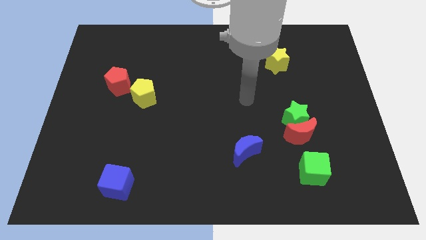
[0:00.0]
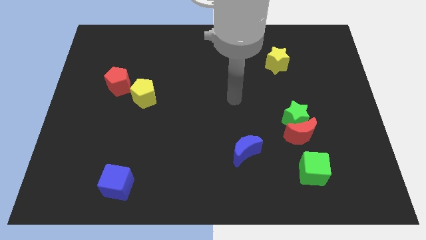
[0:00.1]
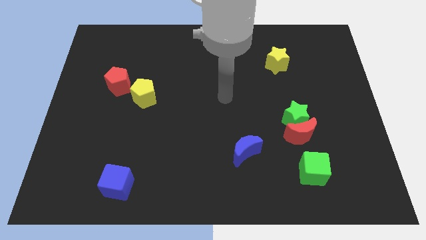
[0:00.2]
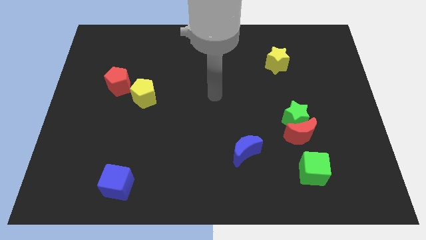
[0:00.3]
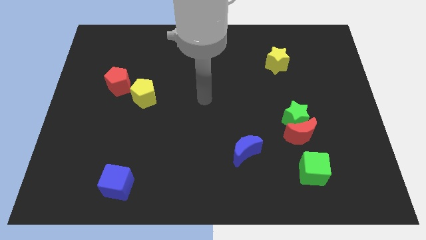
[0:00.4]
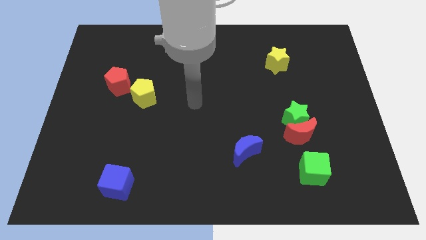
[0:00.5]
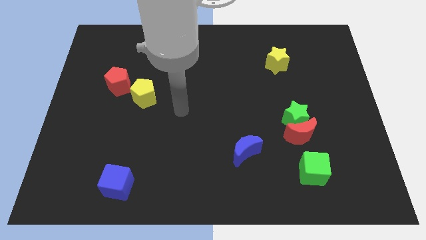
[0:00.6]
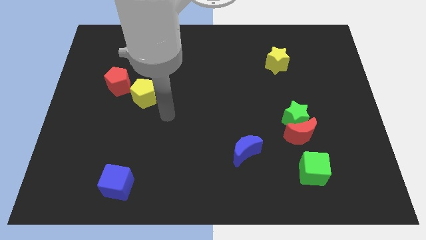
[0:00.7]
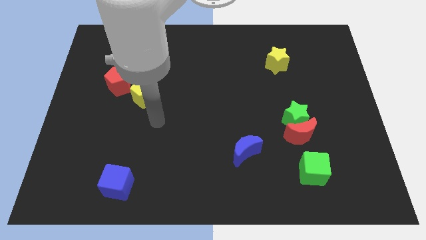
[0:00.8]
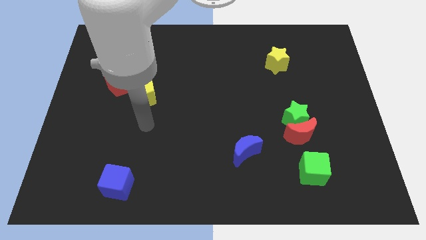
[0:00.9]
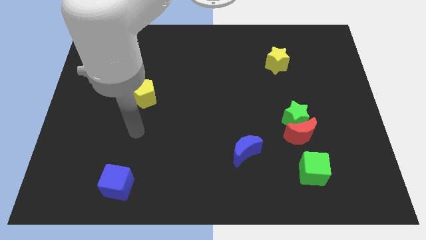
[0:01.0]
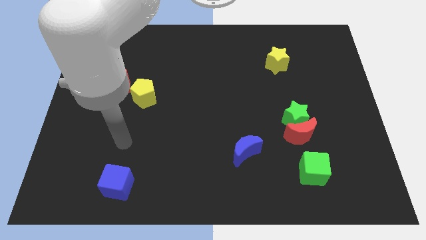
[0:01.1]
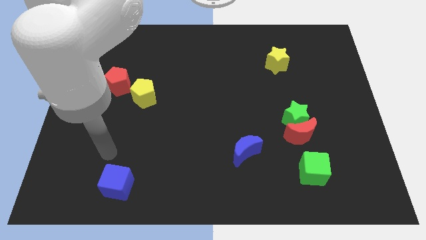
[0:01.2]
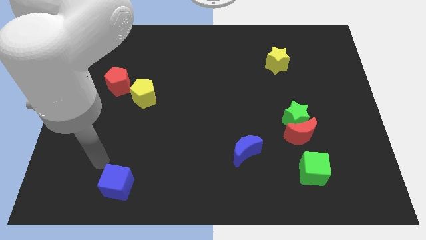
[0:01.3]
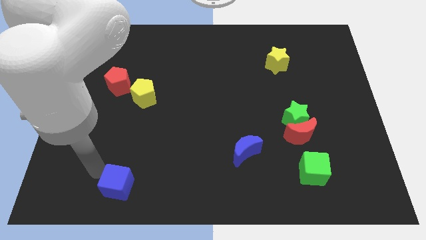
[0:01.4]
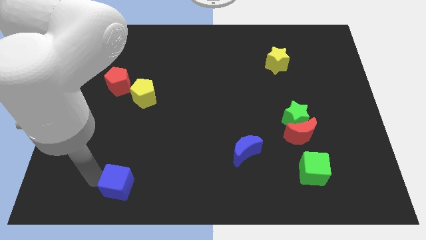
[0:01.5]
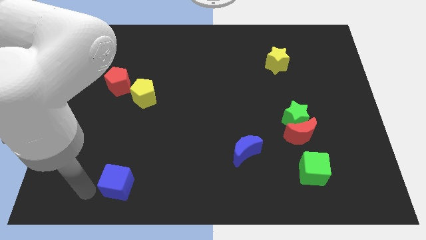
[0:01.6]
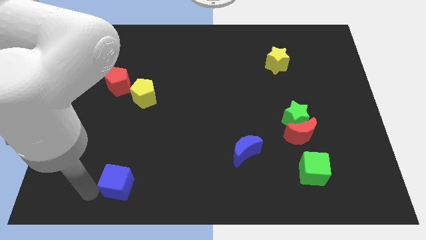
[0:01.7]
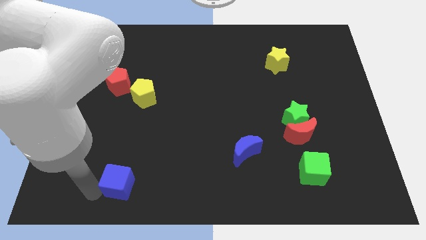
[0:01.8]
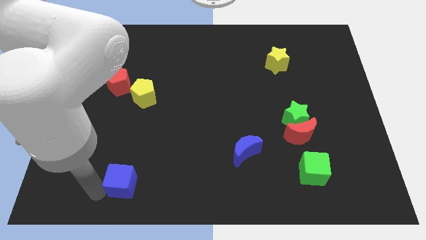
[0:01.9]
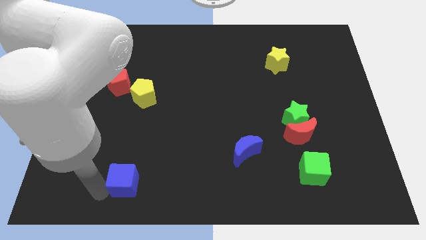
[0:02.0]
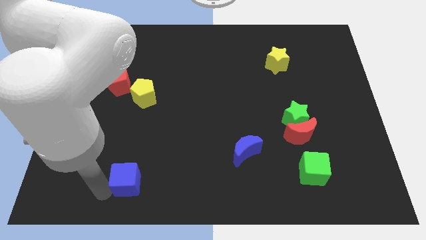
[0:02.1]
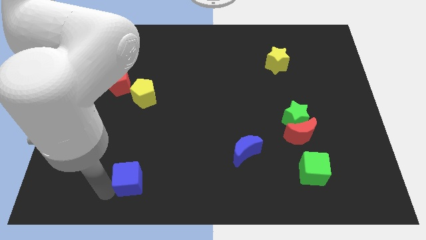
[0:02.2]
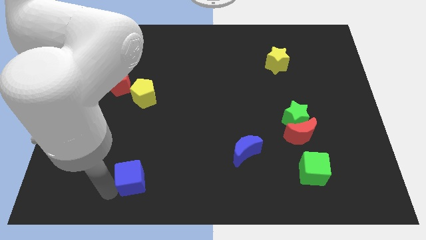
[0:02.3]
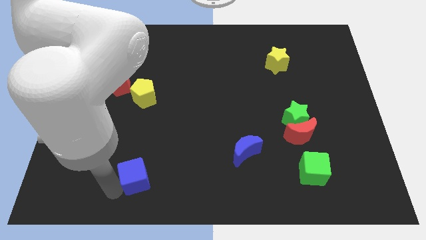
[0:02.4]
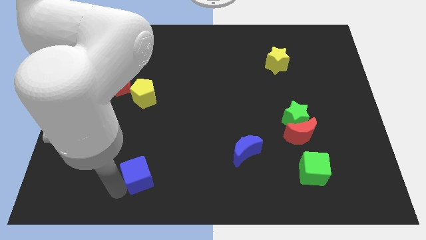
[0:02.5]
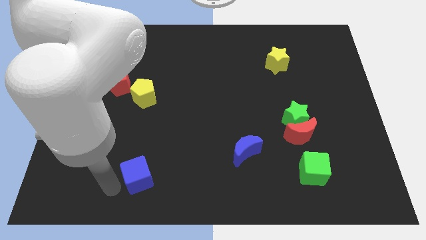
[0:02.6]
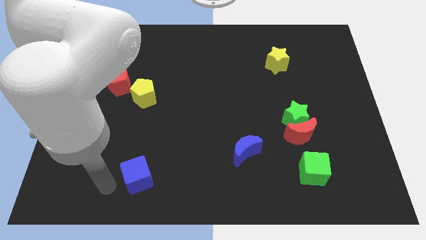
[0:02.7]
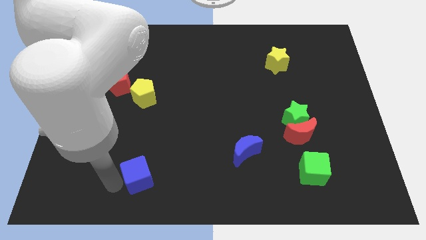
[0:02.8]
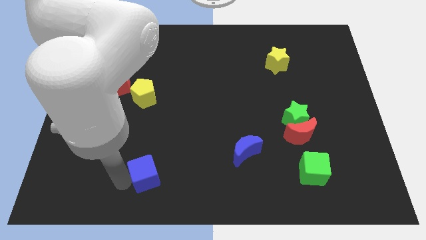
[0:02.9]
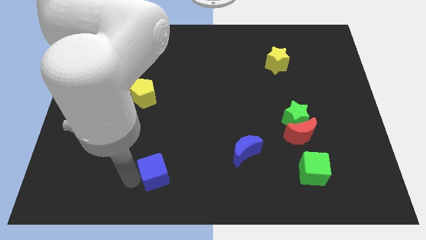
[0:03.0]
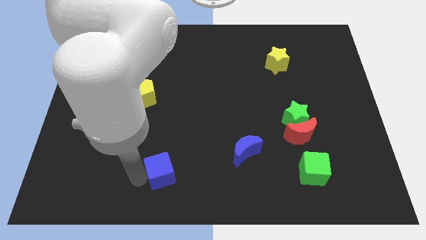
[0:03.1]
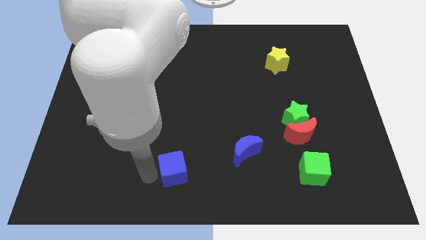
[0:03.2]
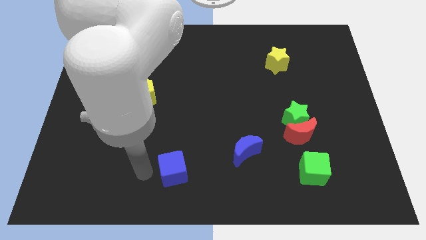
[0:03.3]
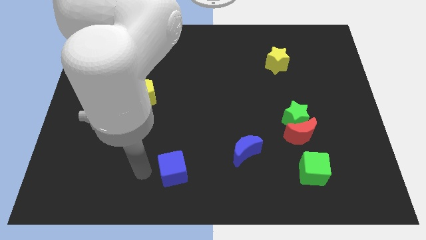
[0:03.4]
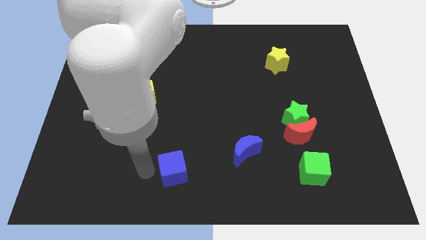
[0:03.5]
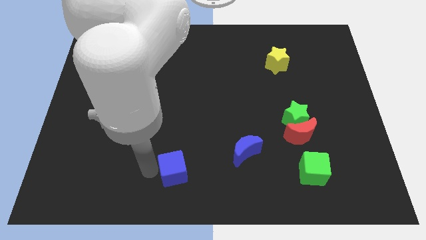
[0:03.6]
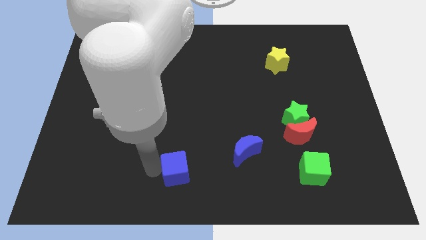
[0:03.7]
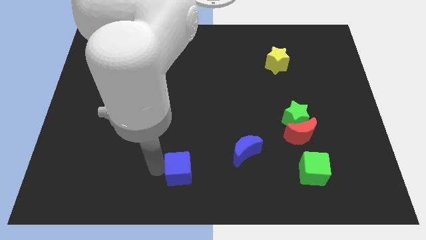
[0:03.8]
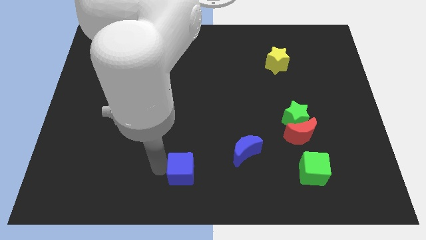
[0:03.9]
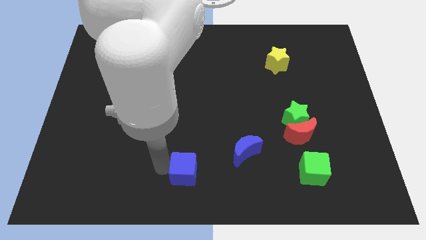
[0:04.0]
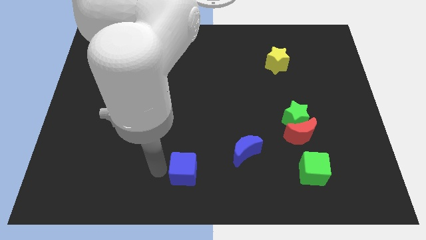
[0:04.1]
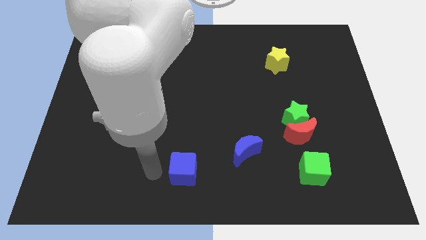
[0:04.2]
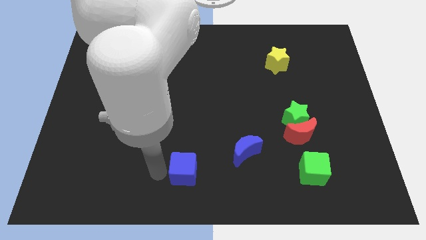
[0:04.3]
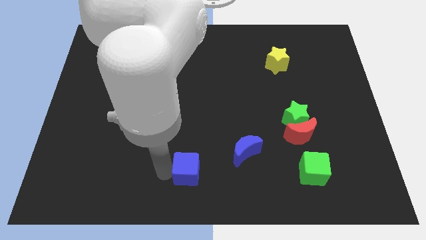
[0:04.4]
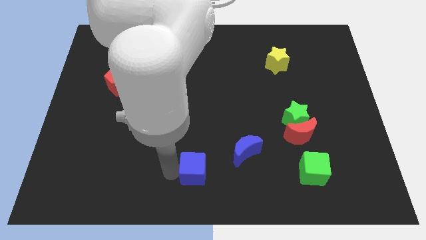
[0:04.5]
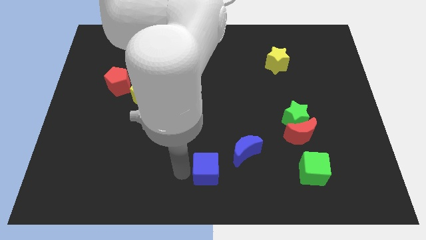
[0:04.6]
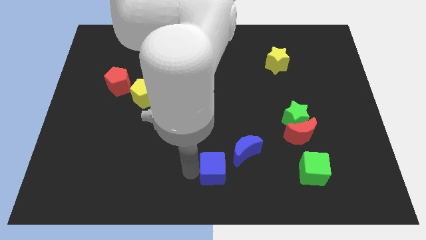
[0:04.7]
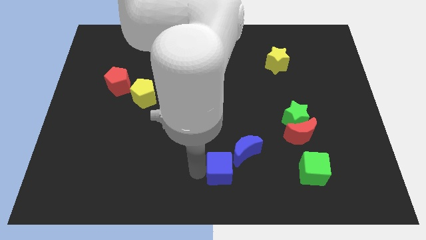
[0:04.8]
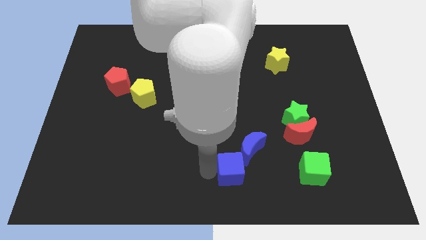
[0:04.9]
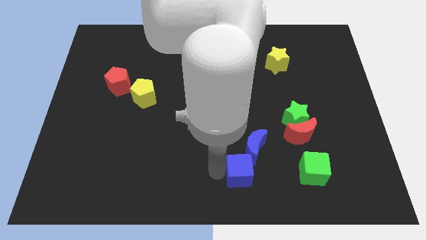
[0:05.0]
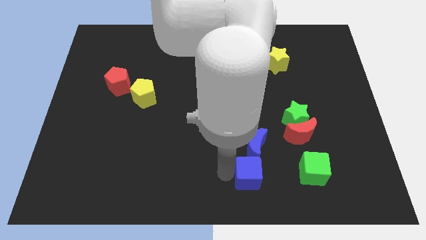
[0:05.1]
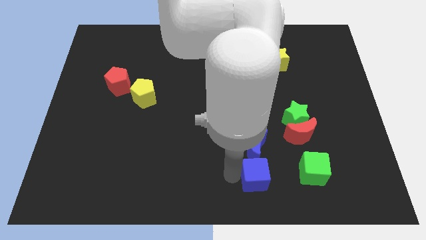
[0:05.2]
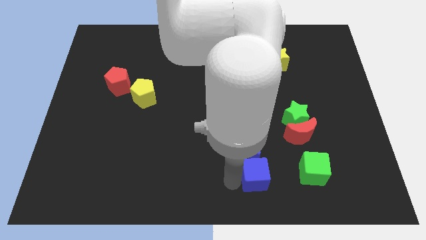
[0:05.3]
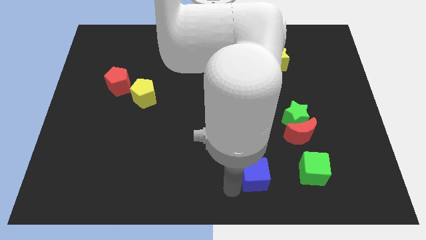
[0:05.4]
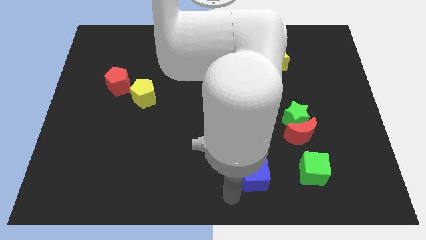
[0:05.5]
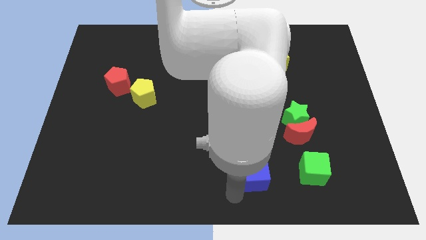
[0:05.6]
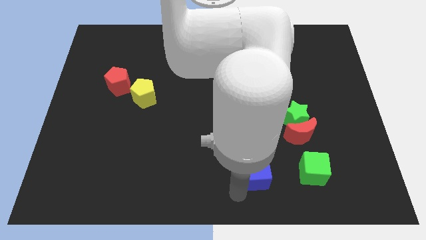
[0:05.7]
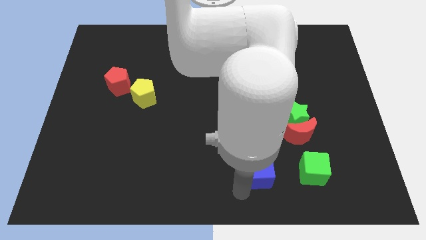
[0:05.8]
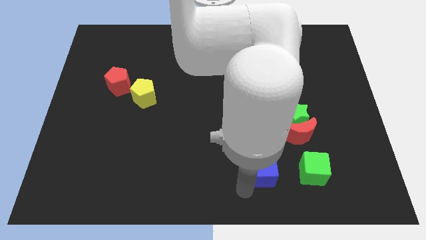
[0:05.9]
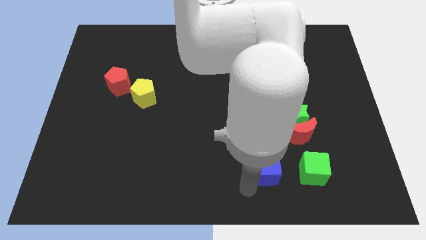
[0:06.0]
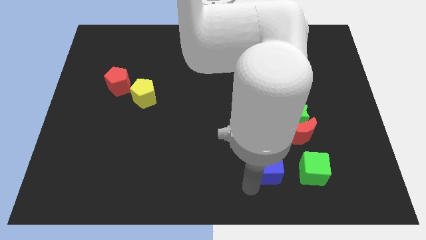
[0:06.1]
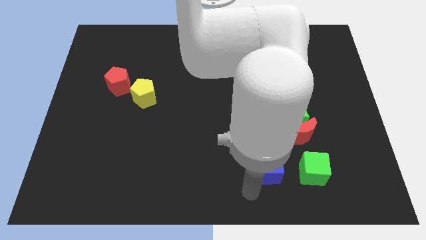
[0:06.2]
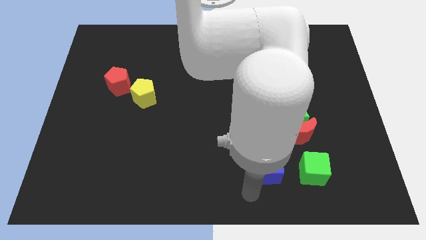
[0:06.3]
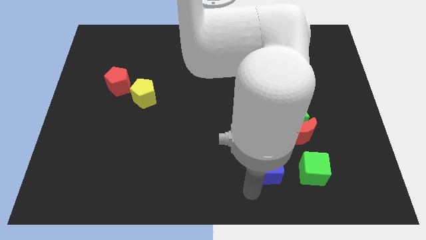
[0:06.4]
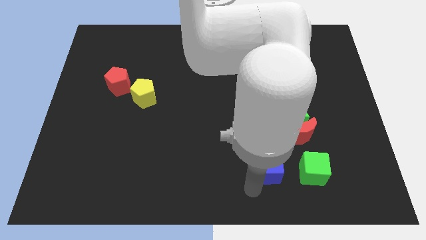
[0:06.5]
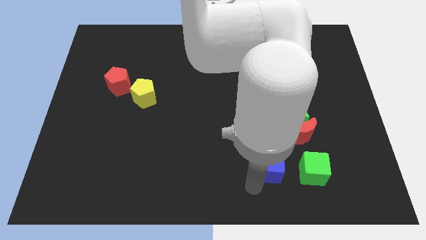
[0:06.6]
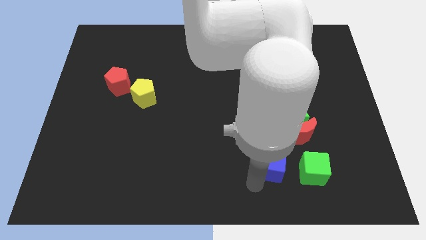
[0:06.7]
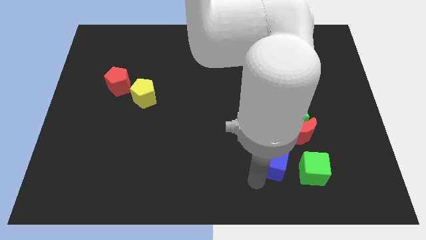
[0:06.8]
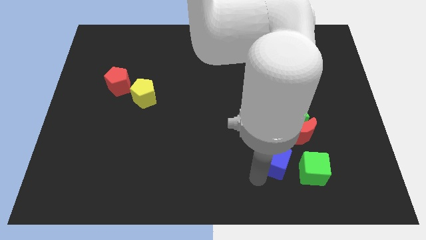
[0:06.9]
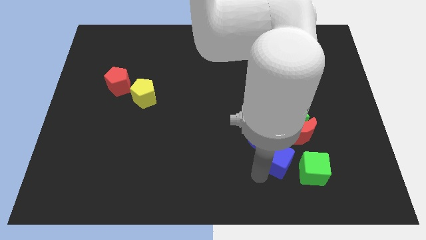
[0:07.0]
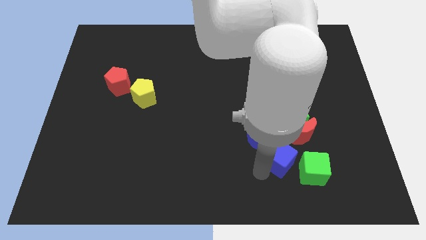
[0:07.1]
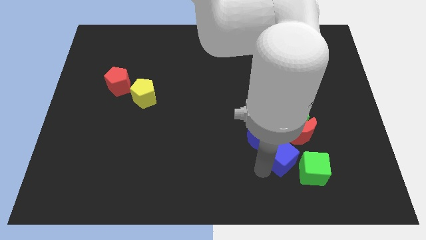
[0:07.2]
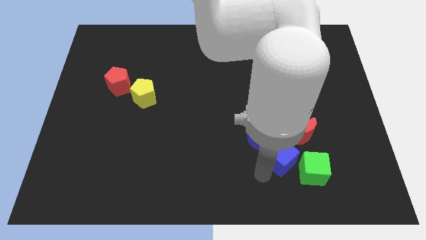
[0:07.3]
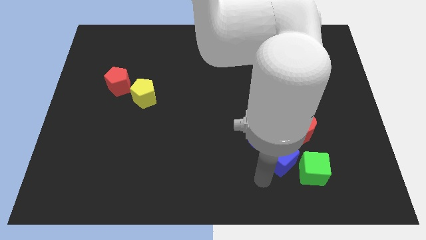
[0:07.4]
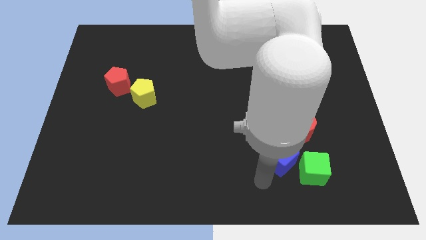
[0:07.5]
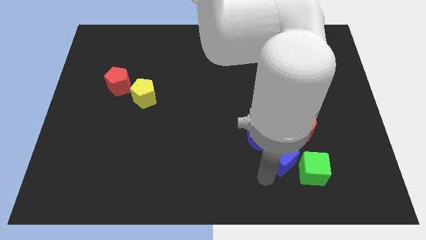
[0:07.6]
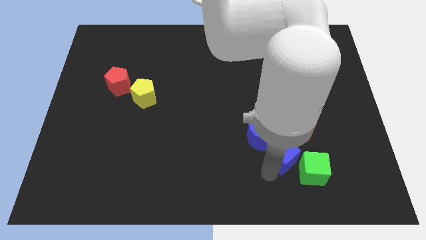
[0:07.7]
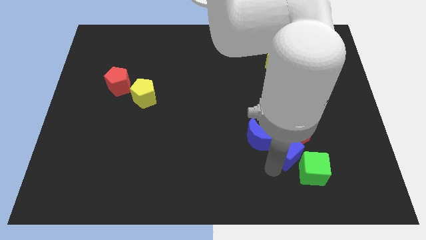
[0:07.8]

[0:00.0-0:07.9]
push the blue cube to the red moon
